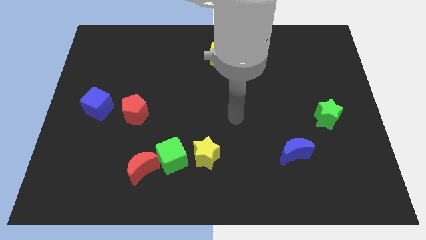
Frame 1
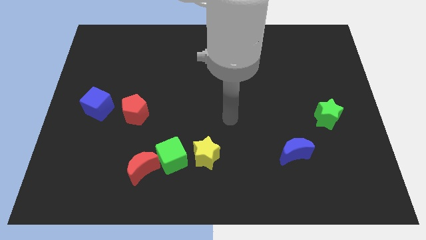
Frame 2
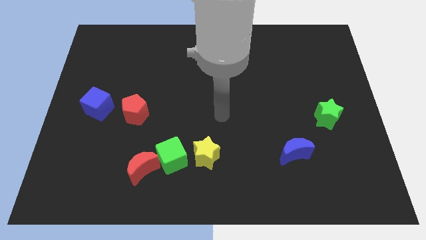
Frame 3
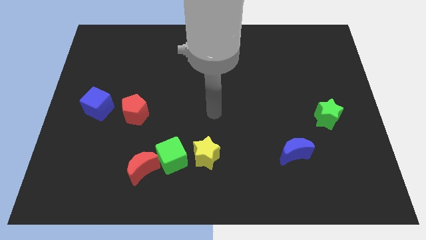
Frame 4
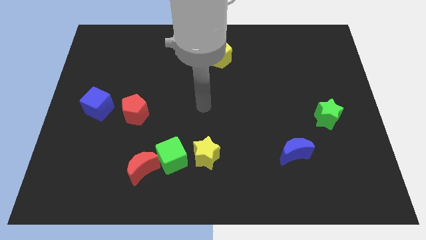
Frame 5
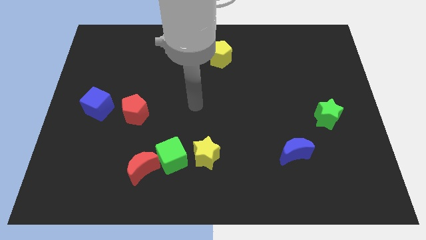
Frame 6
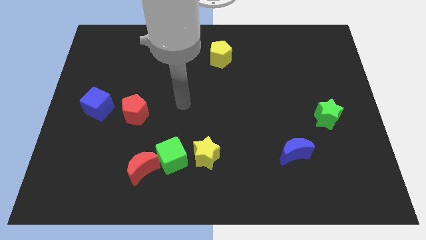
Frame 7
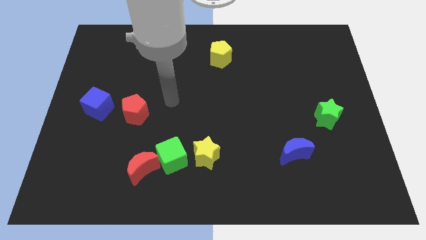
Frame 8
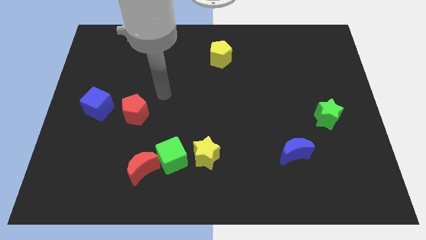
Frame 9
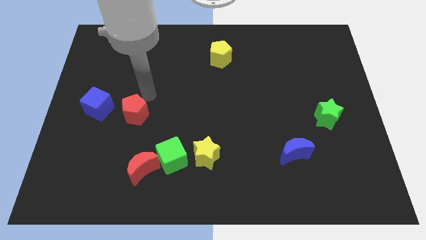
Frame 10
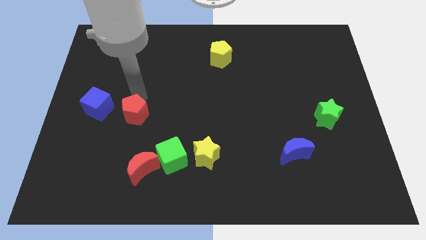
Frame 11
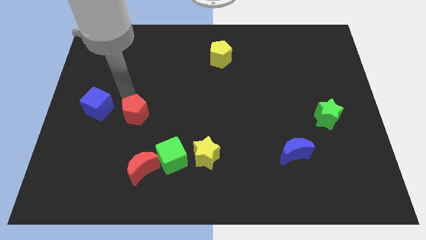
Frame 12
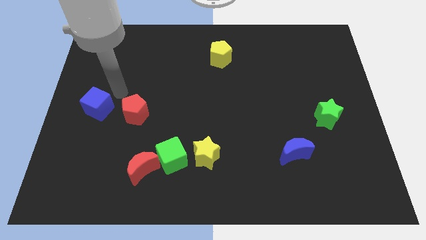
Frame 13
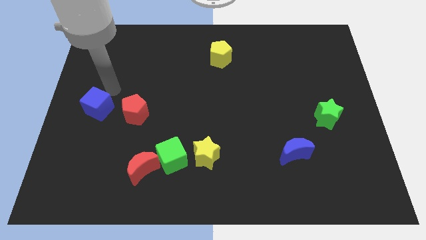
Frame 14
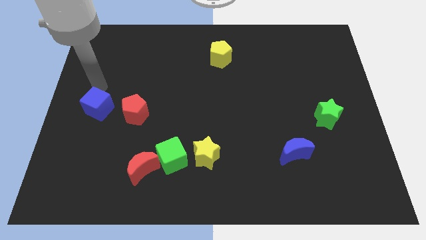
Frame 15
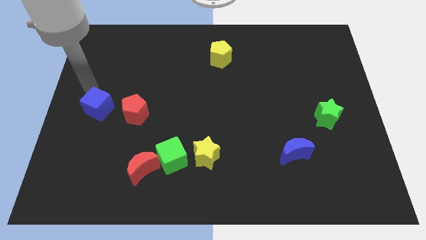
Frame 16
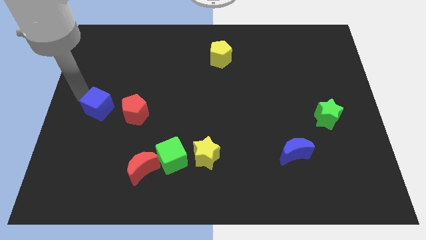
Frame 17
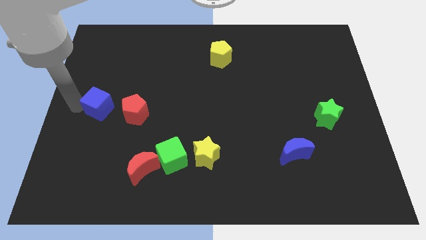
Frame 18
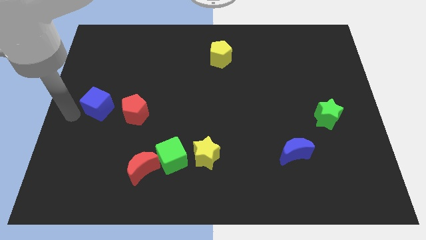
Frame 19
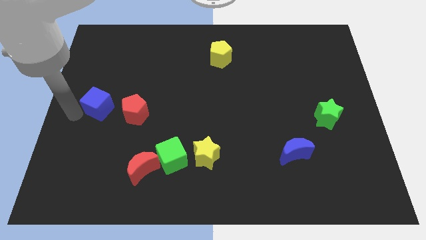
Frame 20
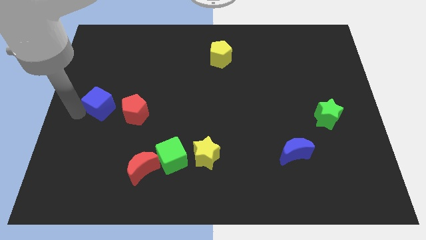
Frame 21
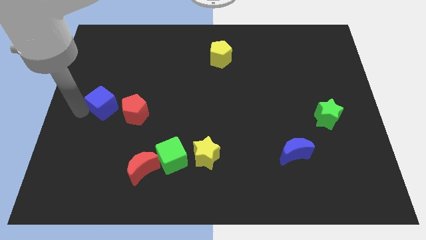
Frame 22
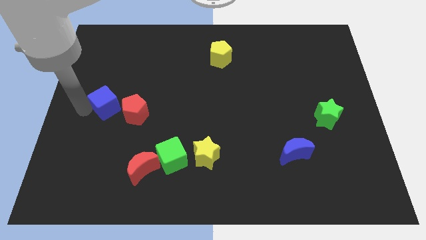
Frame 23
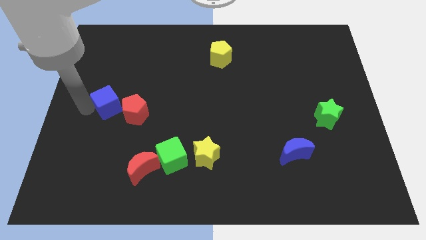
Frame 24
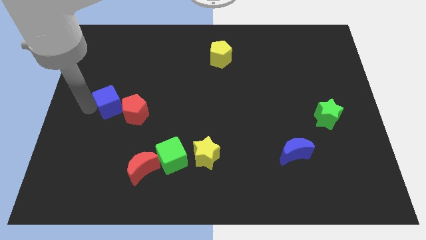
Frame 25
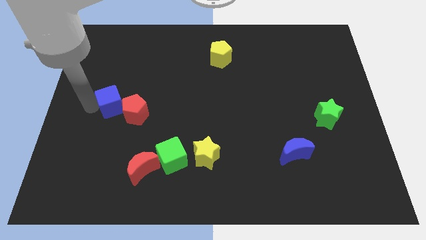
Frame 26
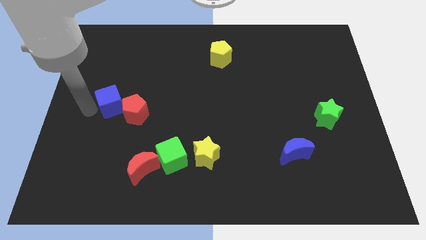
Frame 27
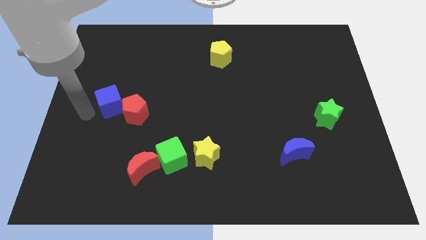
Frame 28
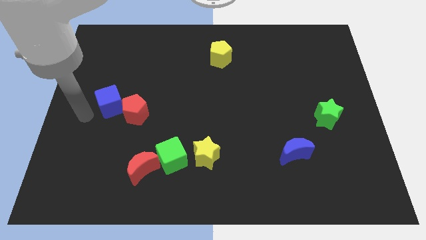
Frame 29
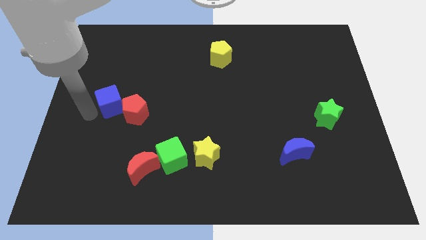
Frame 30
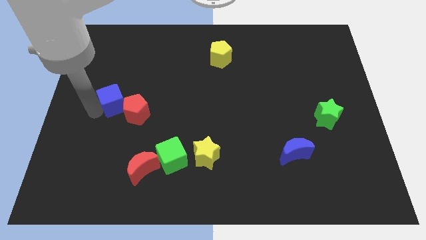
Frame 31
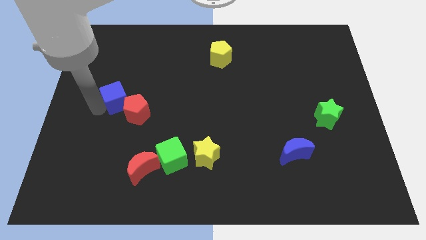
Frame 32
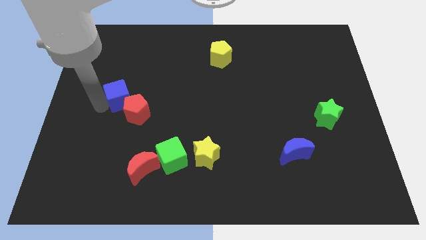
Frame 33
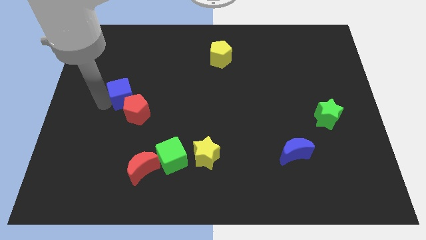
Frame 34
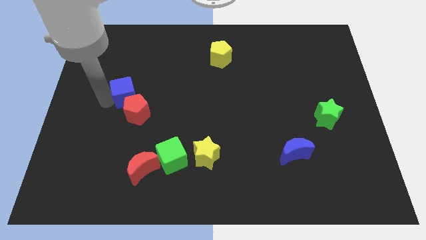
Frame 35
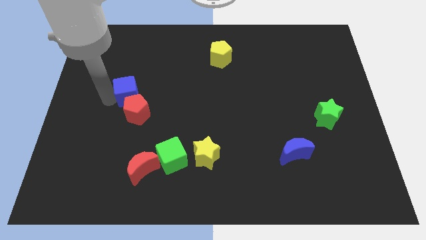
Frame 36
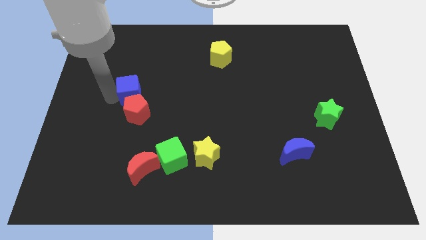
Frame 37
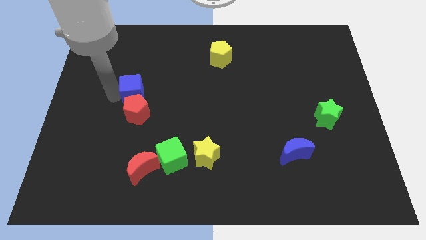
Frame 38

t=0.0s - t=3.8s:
push the blue cube to the right a little

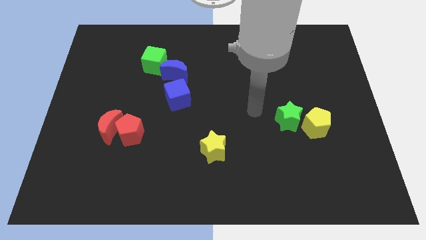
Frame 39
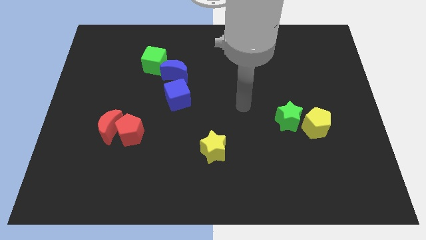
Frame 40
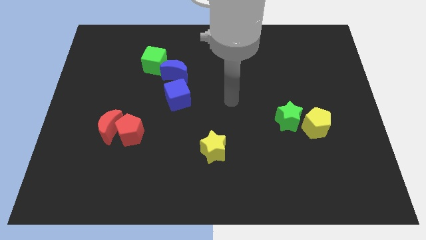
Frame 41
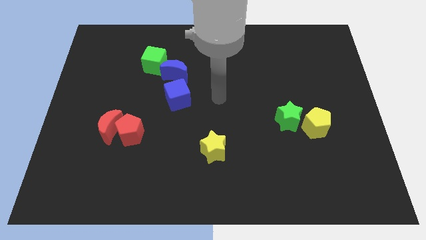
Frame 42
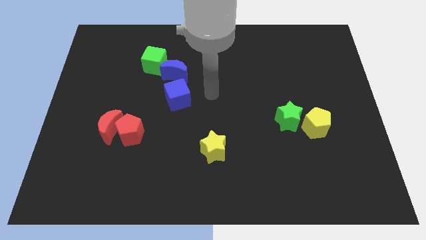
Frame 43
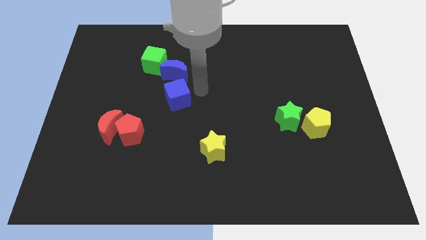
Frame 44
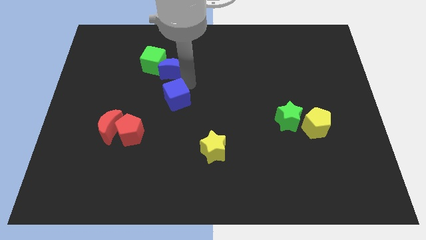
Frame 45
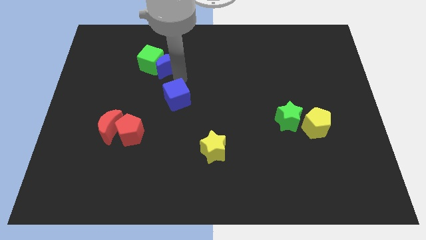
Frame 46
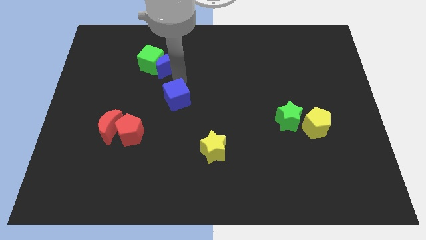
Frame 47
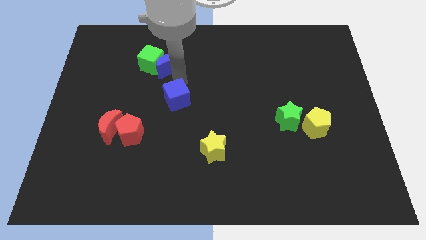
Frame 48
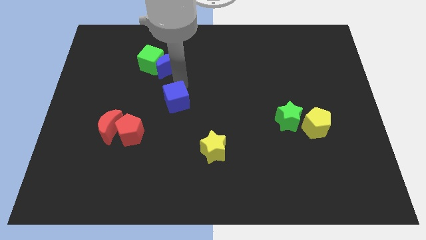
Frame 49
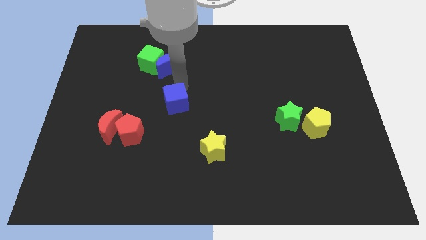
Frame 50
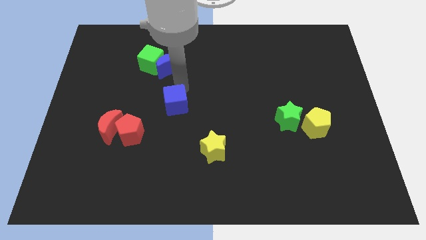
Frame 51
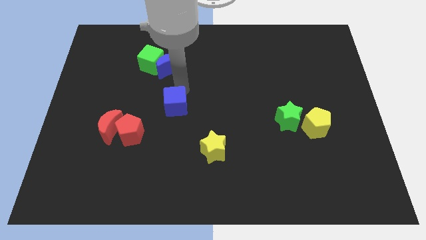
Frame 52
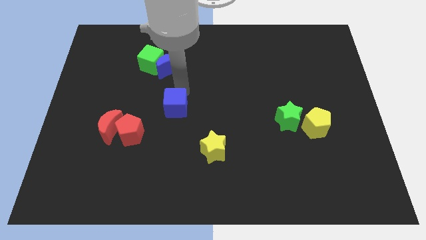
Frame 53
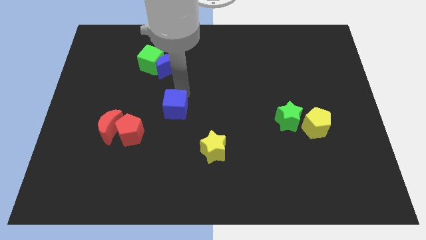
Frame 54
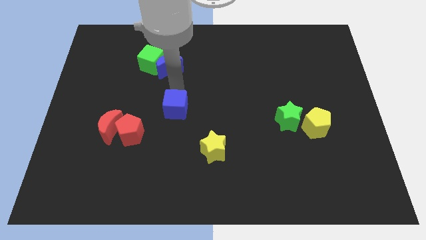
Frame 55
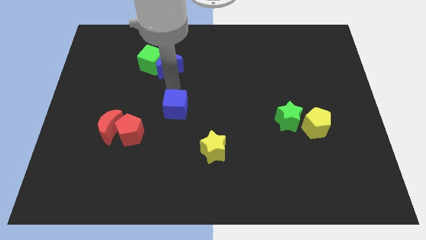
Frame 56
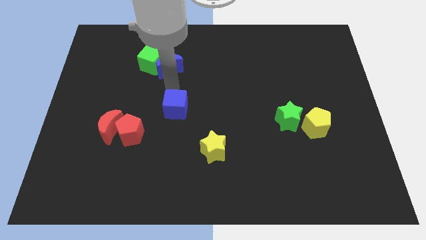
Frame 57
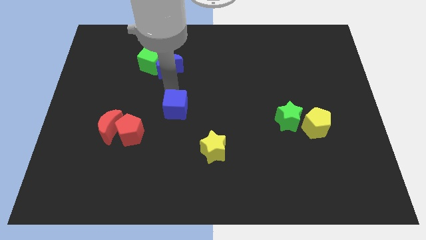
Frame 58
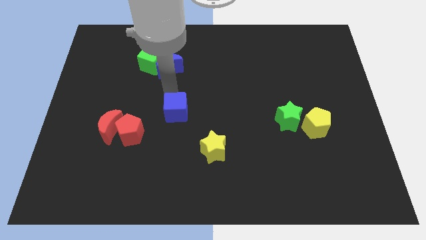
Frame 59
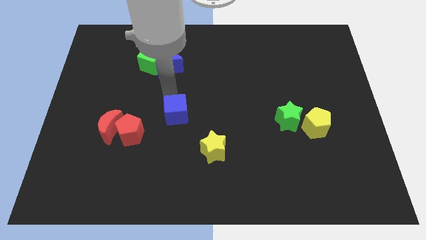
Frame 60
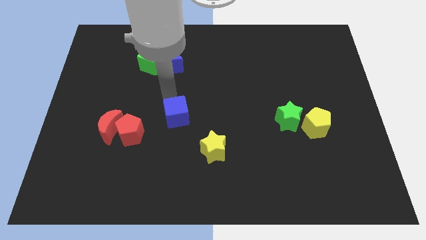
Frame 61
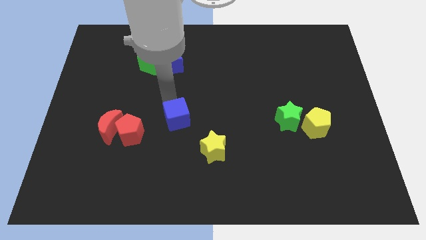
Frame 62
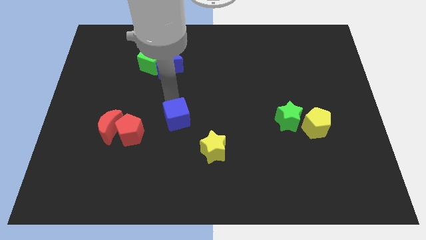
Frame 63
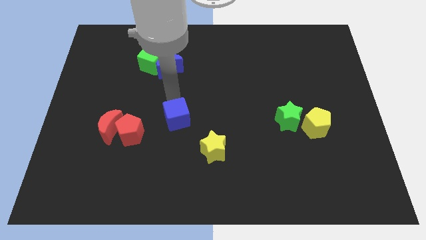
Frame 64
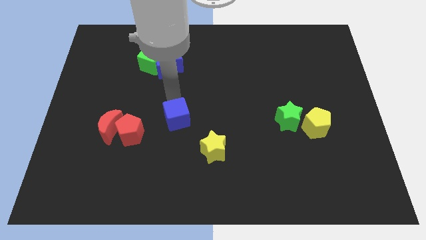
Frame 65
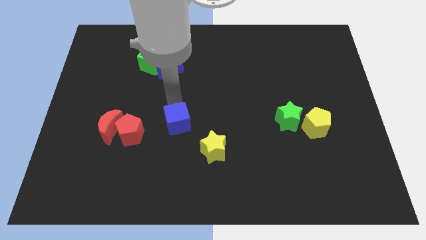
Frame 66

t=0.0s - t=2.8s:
move the blue cube down somewhat

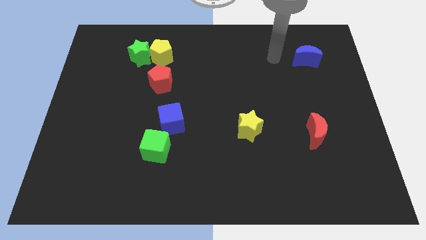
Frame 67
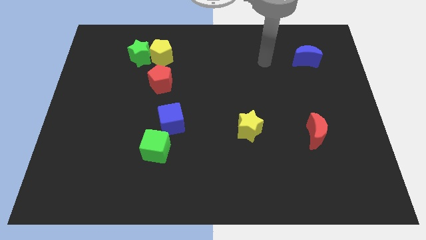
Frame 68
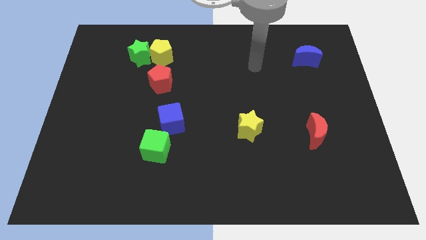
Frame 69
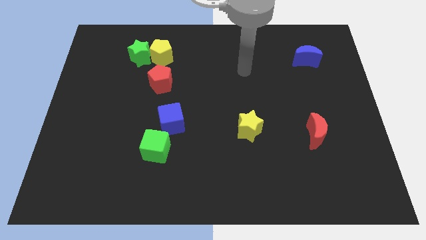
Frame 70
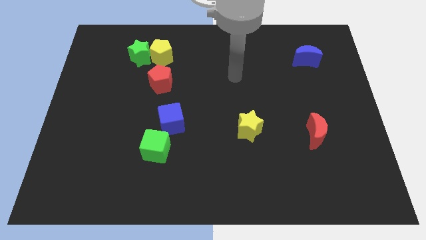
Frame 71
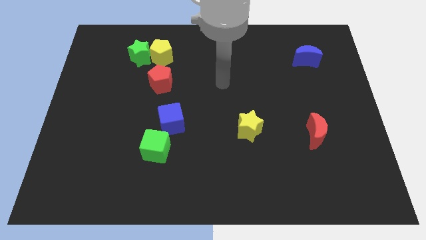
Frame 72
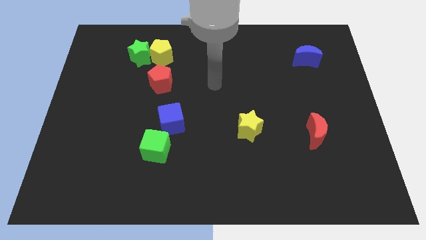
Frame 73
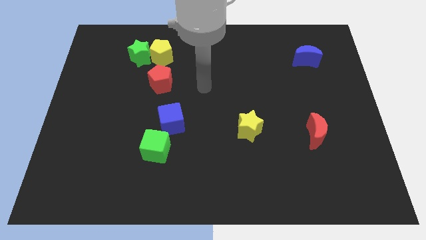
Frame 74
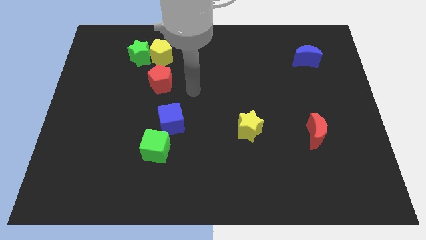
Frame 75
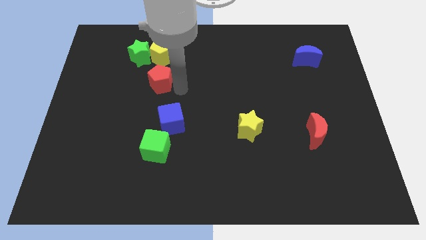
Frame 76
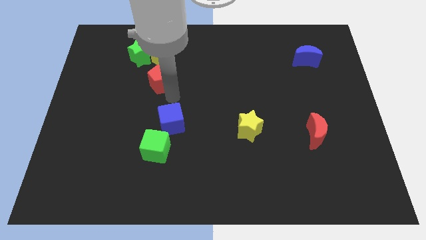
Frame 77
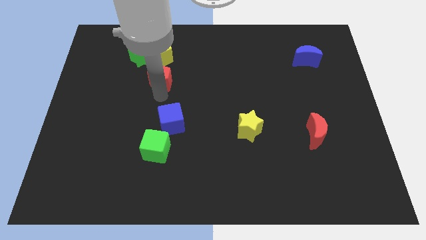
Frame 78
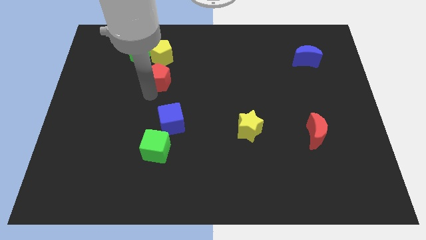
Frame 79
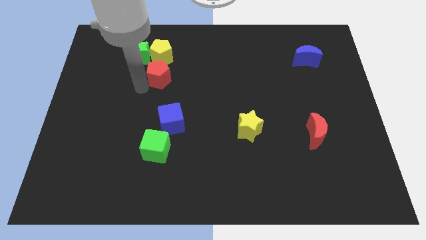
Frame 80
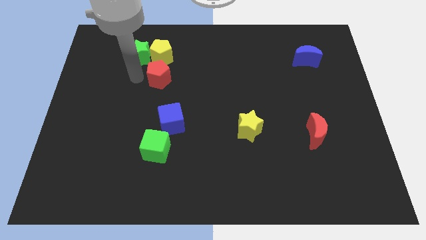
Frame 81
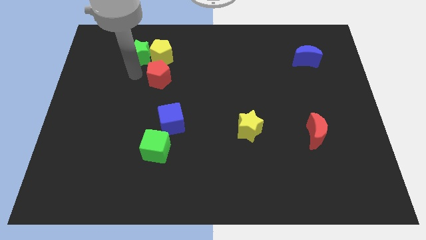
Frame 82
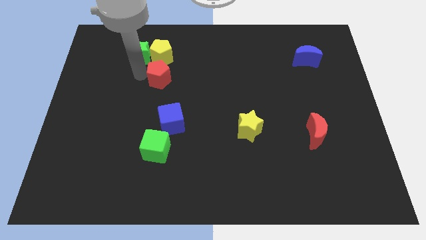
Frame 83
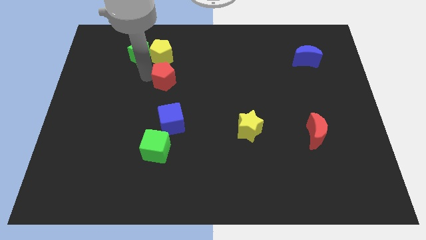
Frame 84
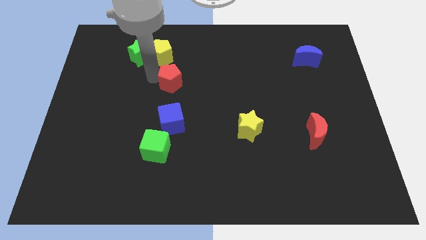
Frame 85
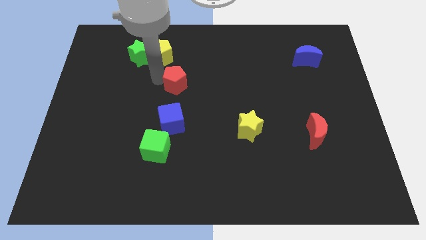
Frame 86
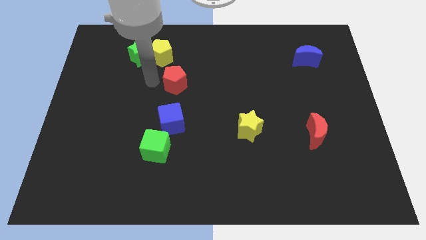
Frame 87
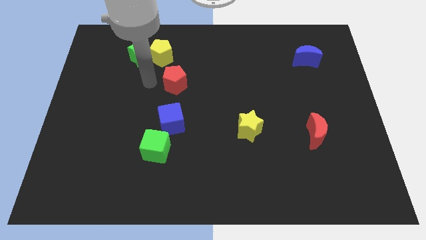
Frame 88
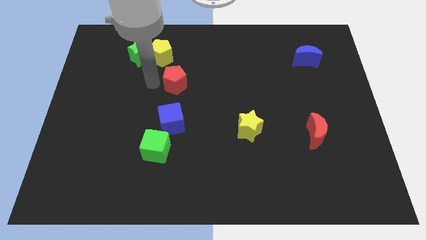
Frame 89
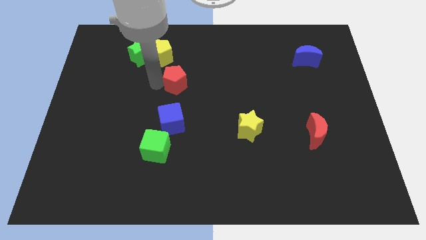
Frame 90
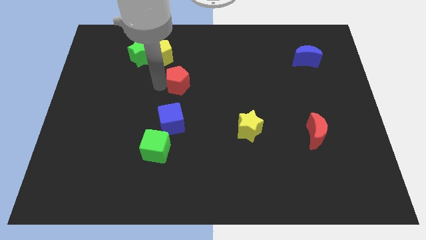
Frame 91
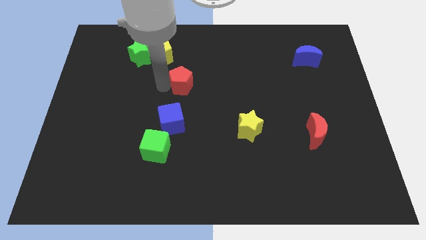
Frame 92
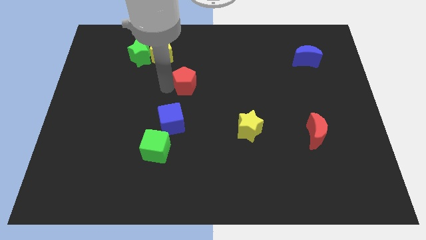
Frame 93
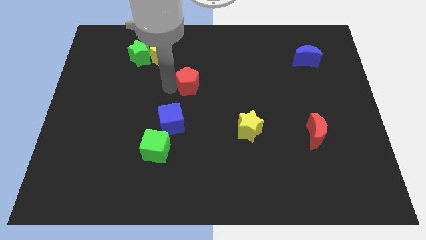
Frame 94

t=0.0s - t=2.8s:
push the red pentagon somewhat to the right
